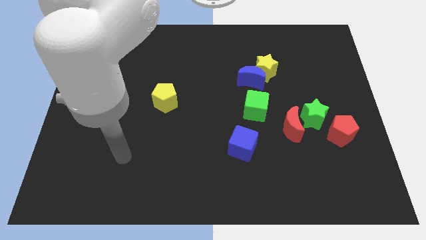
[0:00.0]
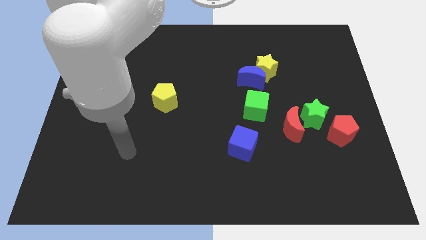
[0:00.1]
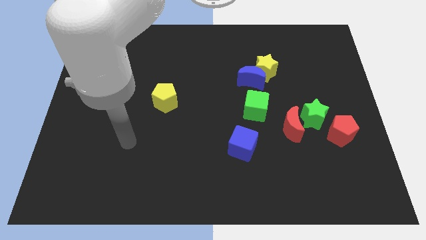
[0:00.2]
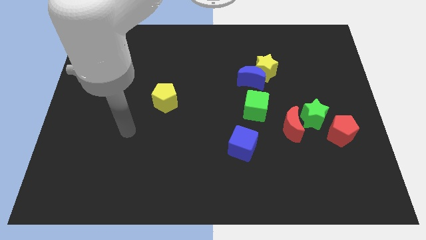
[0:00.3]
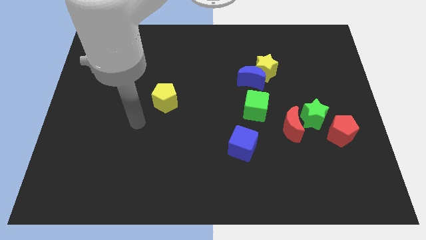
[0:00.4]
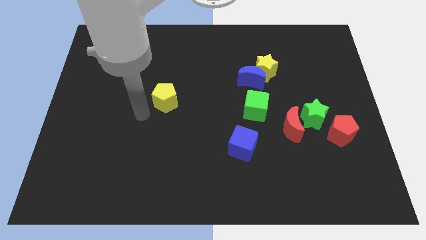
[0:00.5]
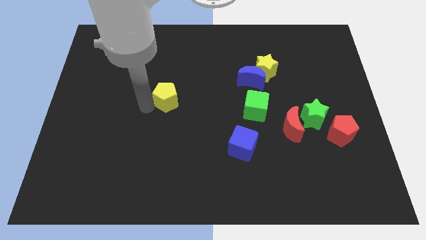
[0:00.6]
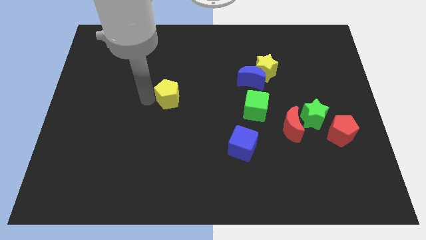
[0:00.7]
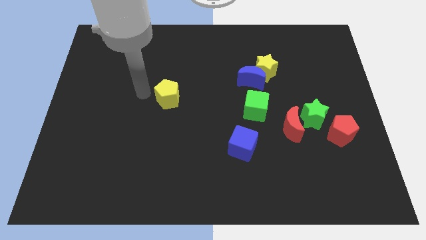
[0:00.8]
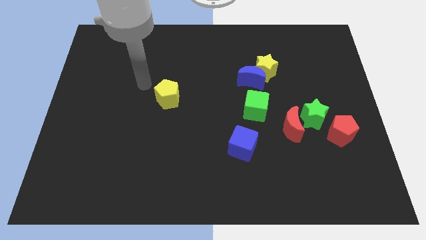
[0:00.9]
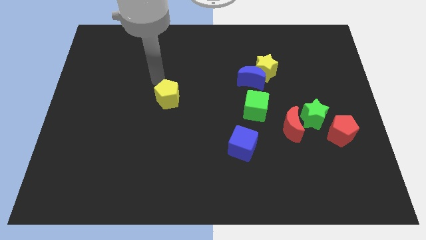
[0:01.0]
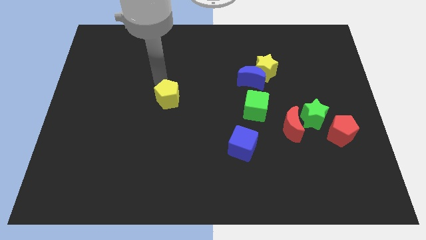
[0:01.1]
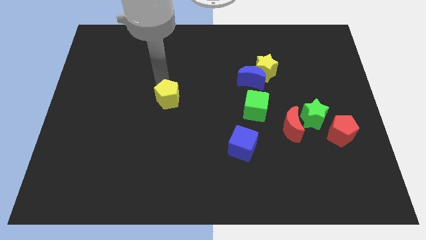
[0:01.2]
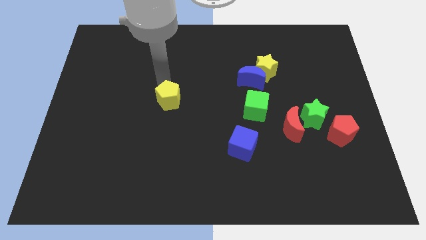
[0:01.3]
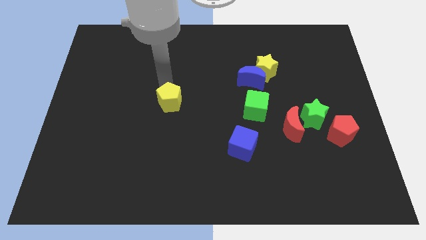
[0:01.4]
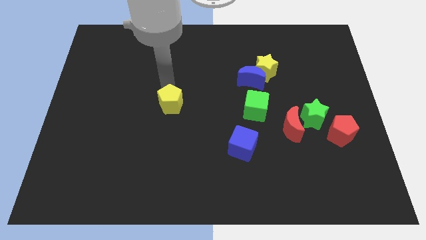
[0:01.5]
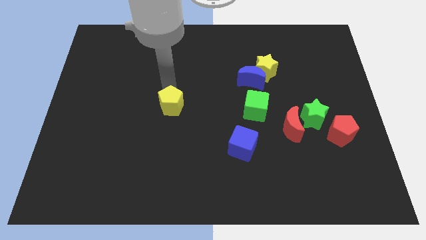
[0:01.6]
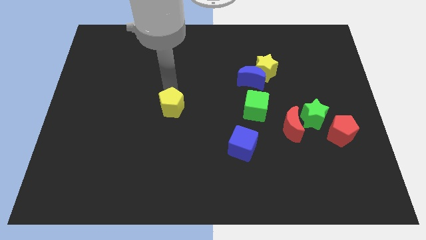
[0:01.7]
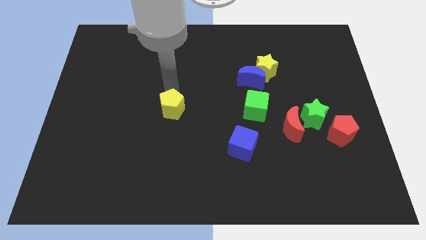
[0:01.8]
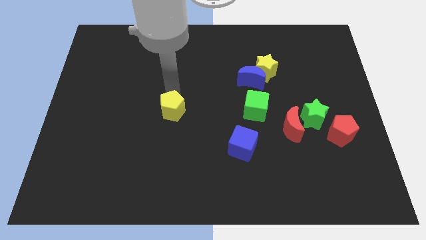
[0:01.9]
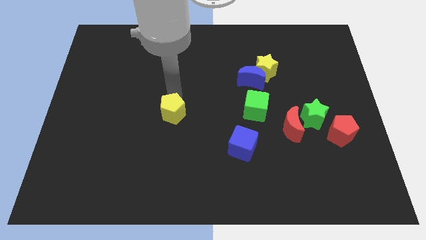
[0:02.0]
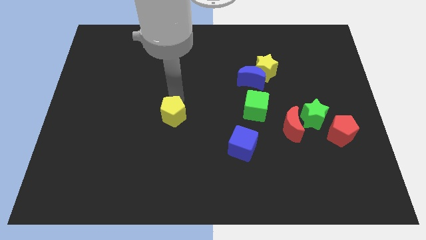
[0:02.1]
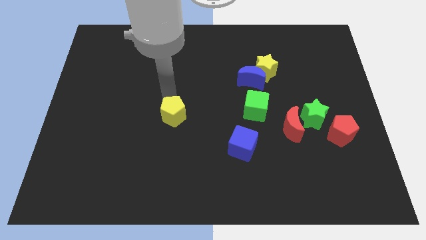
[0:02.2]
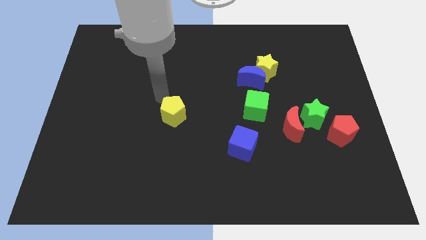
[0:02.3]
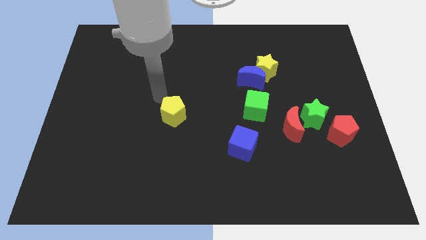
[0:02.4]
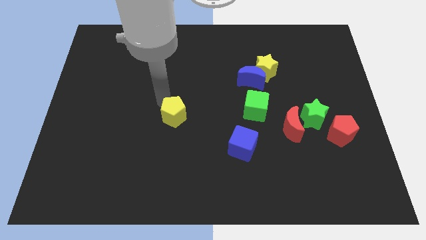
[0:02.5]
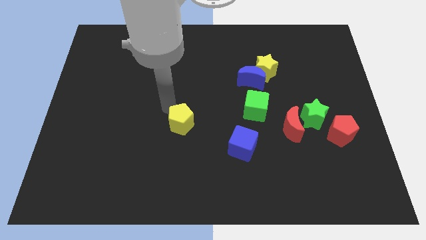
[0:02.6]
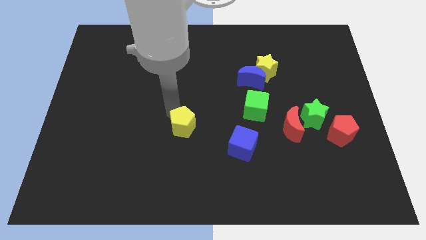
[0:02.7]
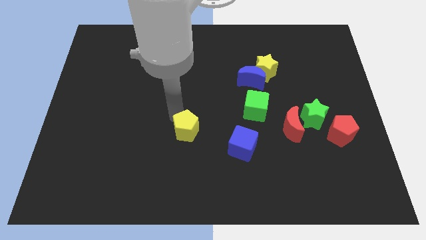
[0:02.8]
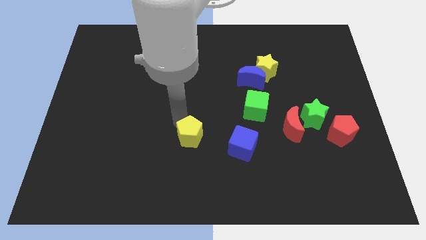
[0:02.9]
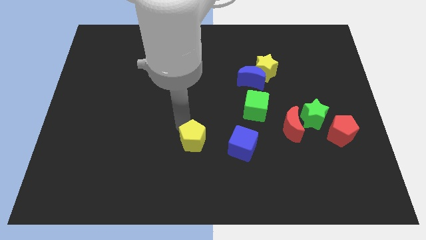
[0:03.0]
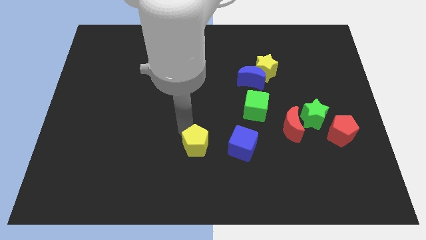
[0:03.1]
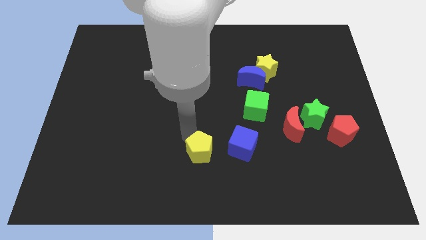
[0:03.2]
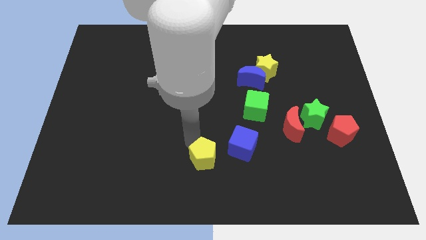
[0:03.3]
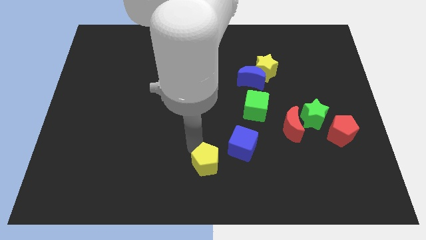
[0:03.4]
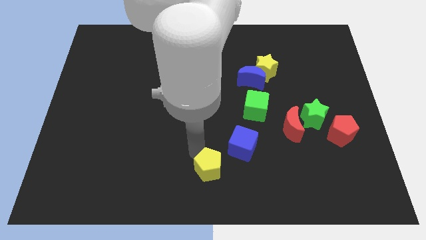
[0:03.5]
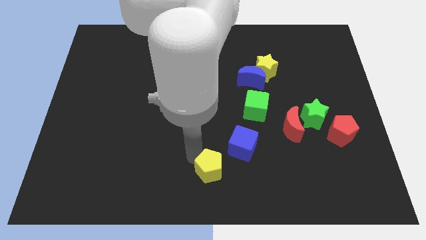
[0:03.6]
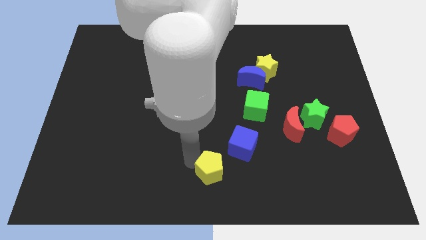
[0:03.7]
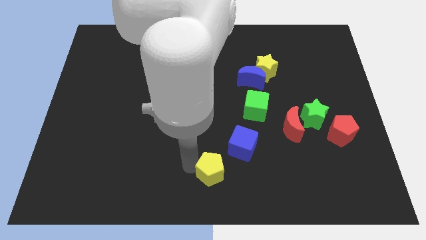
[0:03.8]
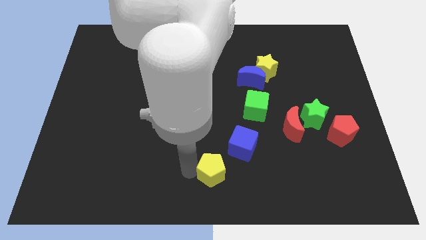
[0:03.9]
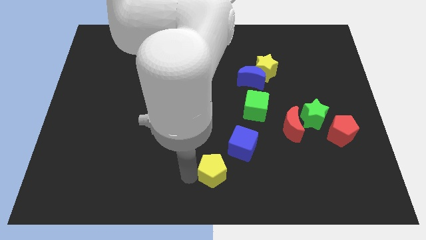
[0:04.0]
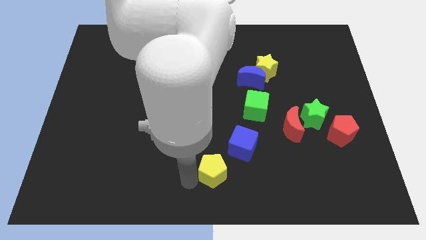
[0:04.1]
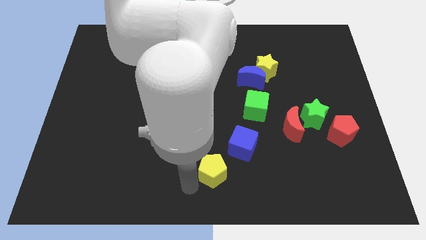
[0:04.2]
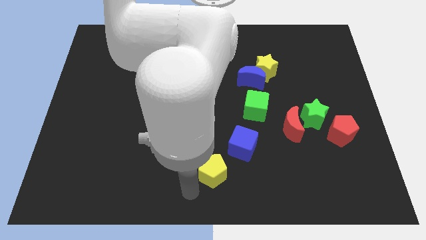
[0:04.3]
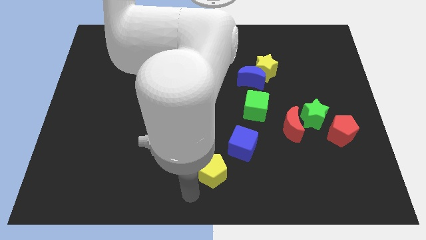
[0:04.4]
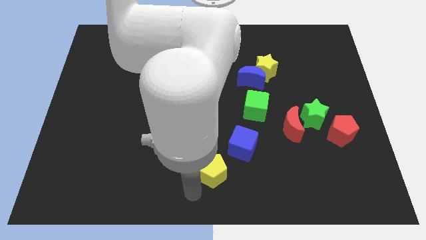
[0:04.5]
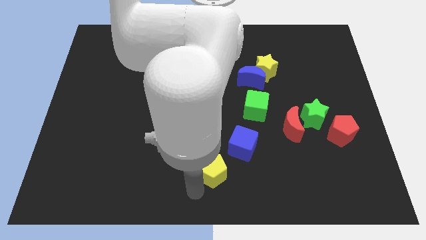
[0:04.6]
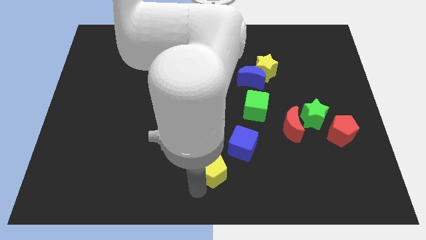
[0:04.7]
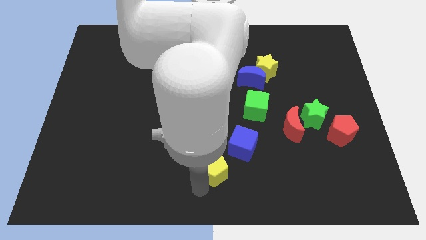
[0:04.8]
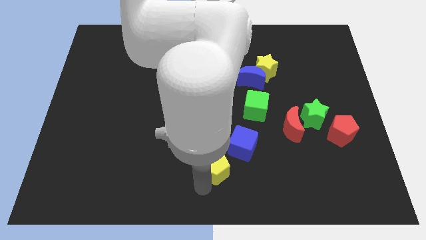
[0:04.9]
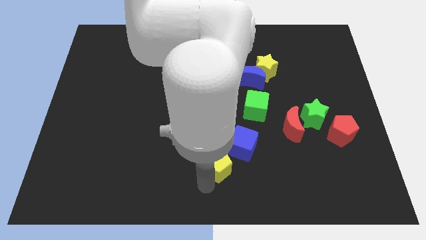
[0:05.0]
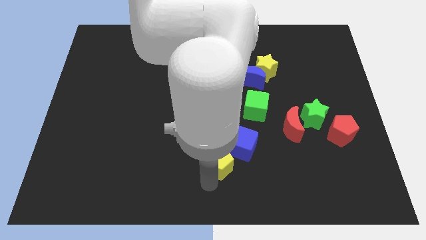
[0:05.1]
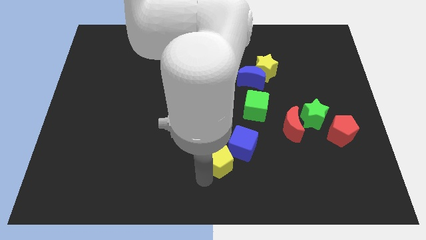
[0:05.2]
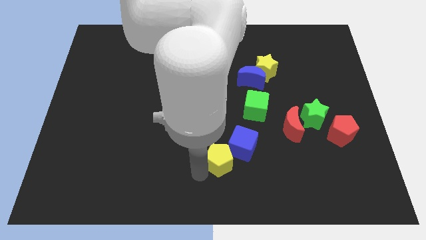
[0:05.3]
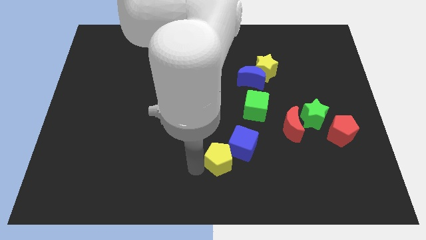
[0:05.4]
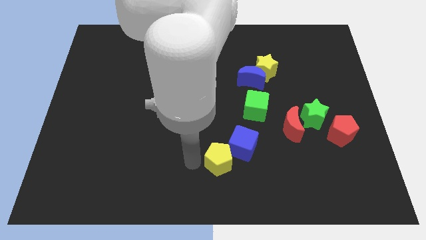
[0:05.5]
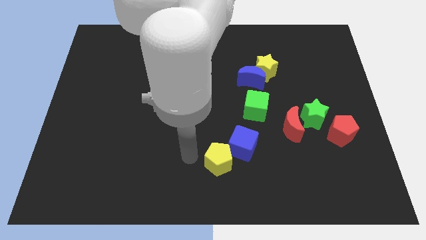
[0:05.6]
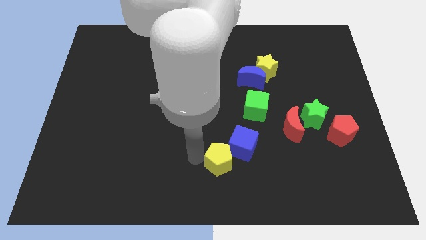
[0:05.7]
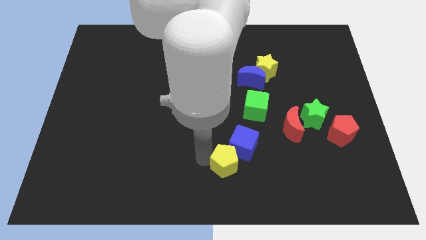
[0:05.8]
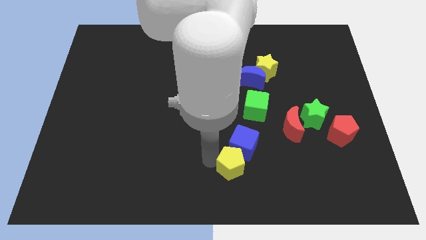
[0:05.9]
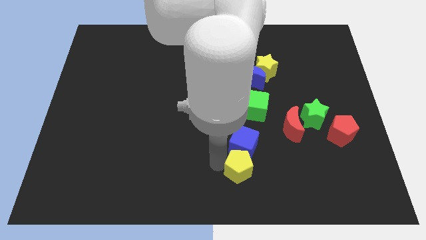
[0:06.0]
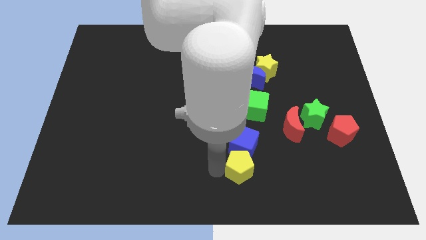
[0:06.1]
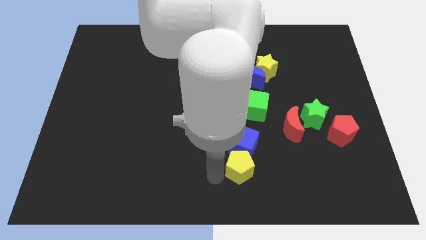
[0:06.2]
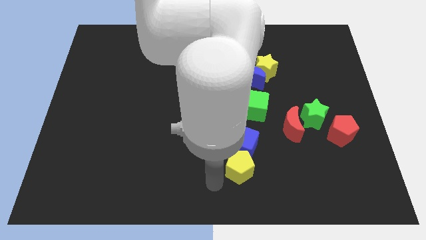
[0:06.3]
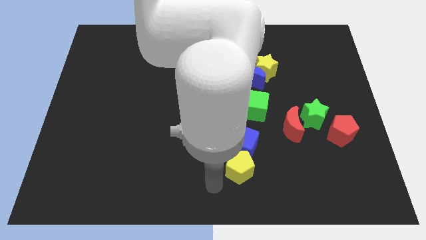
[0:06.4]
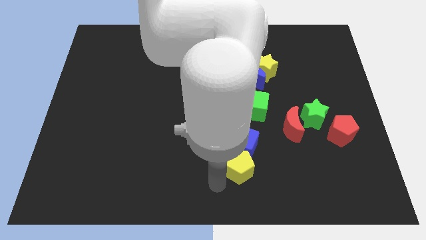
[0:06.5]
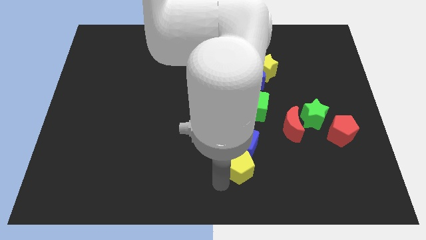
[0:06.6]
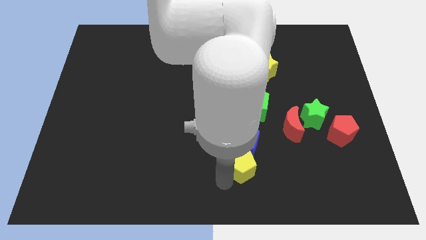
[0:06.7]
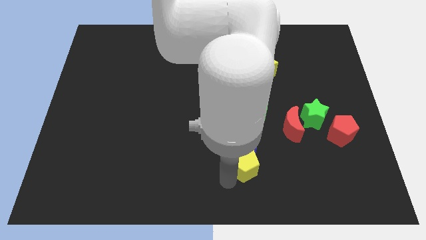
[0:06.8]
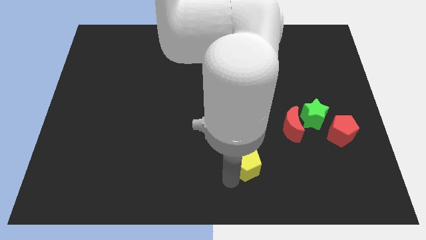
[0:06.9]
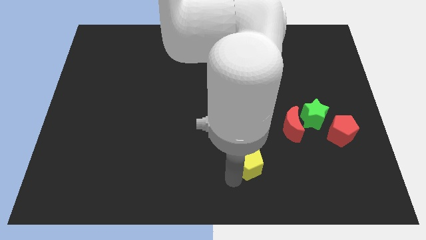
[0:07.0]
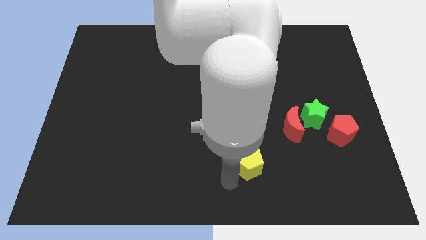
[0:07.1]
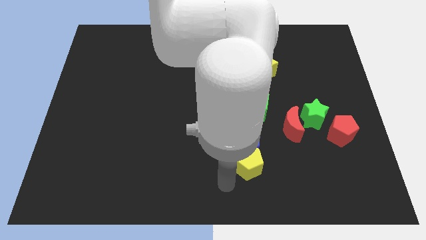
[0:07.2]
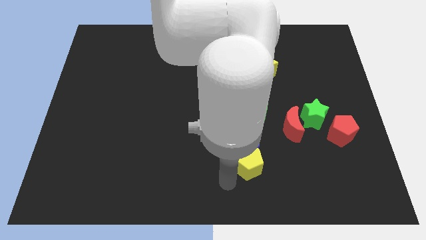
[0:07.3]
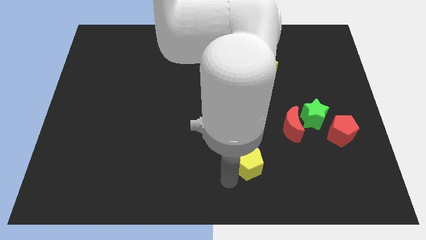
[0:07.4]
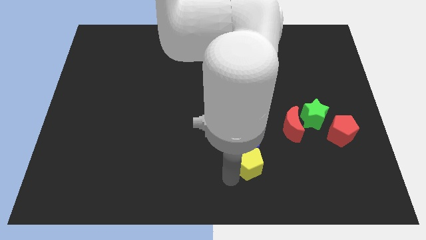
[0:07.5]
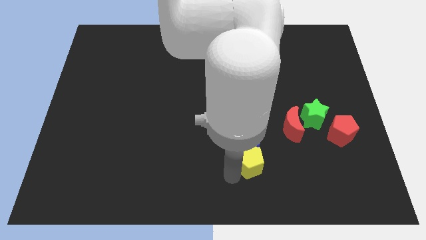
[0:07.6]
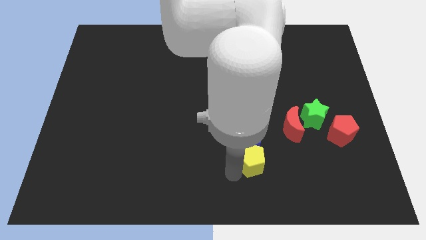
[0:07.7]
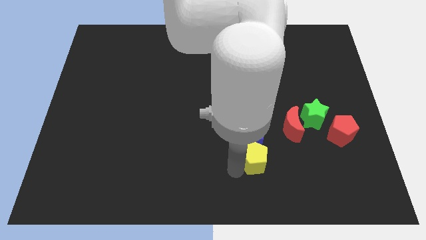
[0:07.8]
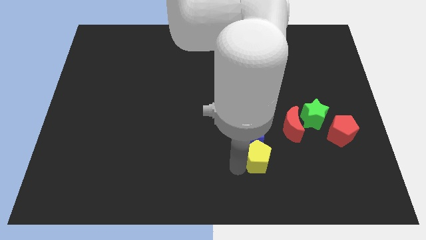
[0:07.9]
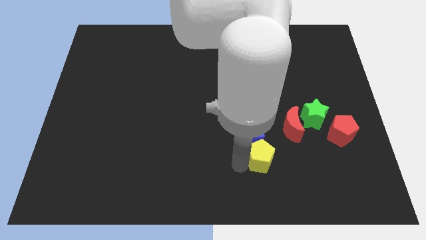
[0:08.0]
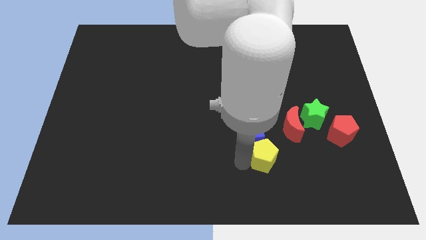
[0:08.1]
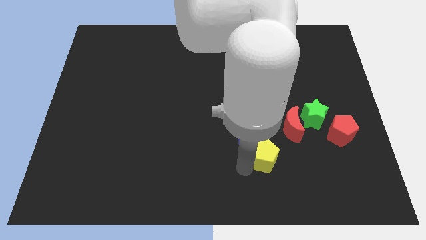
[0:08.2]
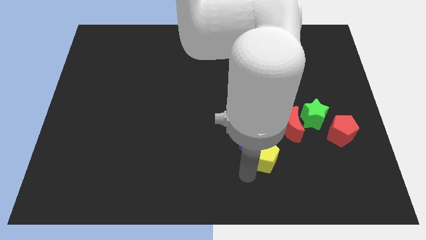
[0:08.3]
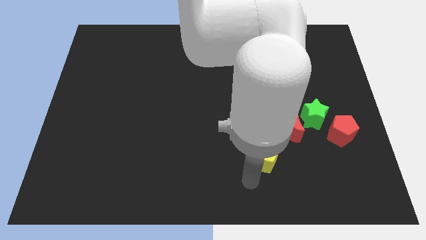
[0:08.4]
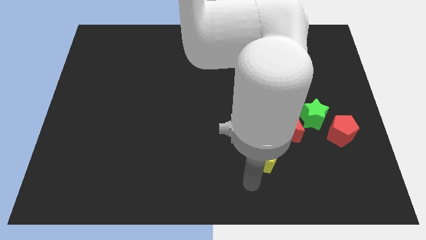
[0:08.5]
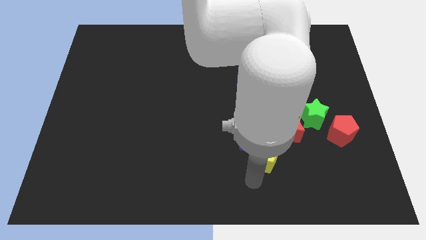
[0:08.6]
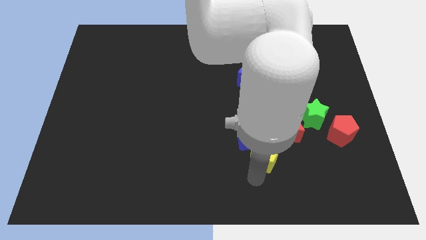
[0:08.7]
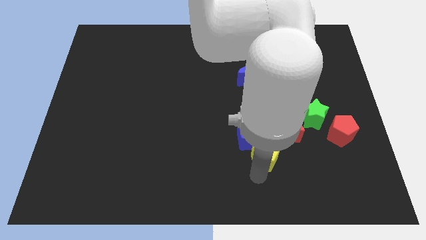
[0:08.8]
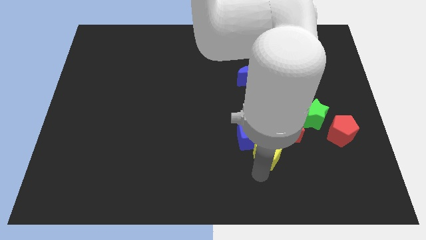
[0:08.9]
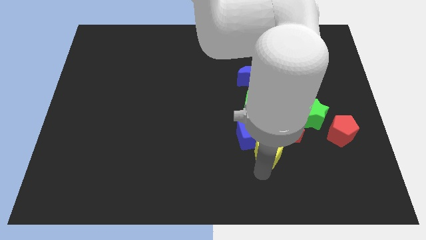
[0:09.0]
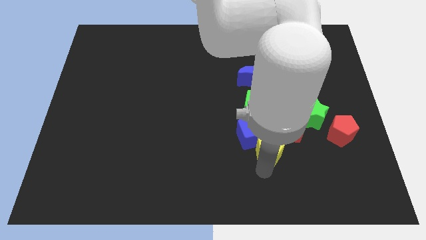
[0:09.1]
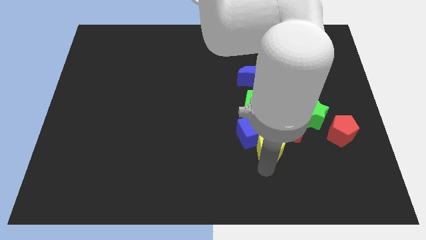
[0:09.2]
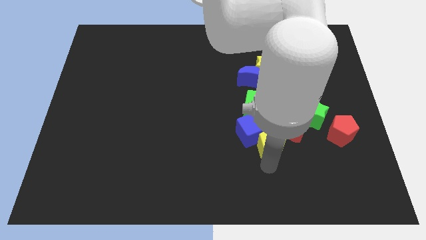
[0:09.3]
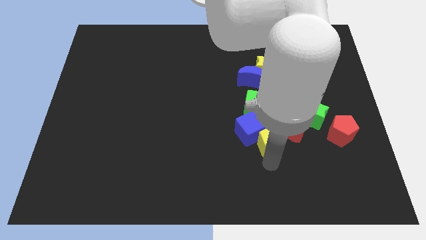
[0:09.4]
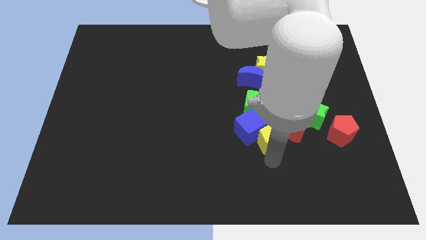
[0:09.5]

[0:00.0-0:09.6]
move the yellow pentagon towards the red moon
